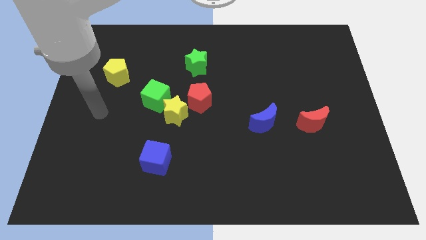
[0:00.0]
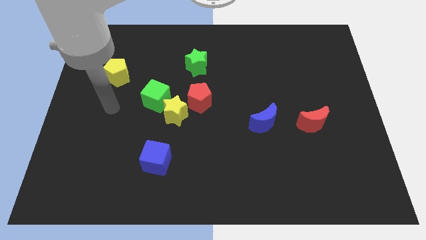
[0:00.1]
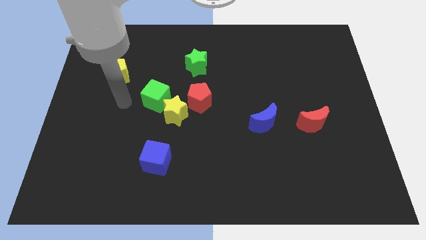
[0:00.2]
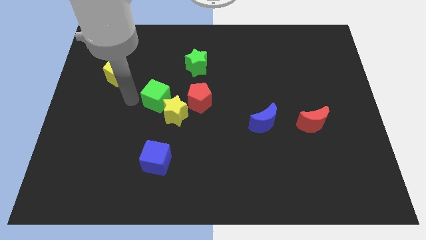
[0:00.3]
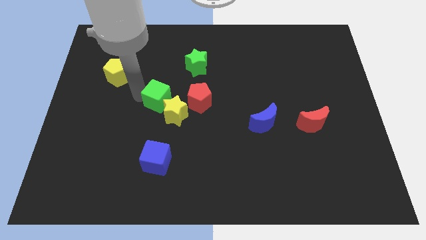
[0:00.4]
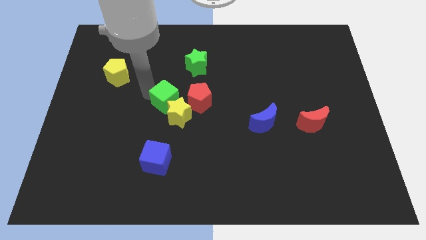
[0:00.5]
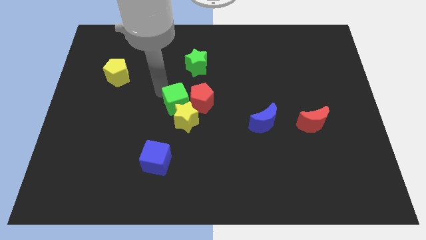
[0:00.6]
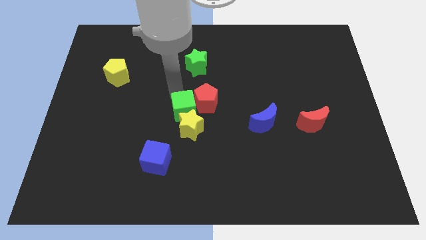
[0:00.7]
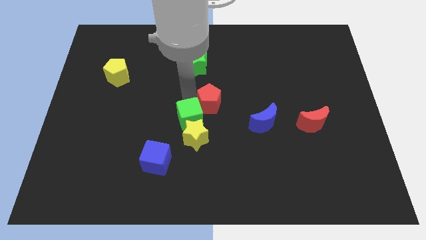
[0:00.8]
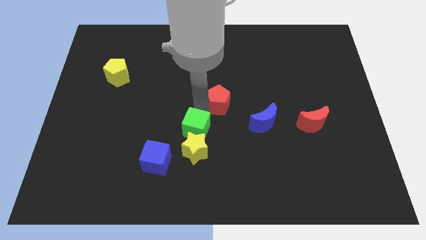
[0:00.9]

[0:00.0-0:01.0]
move the yellow star away from the green cube and red pentagon

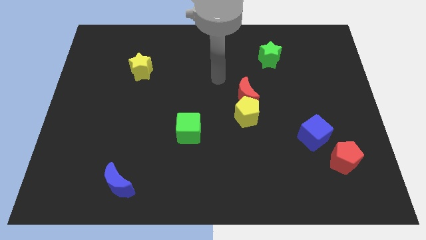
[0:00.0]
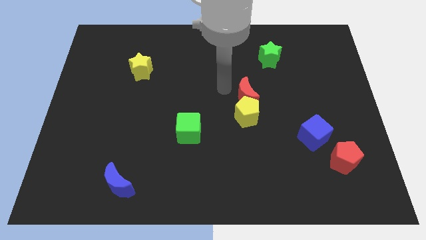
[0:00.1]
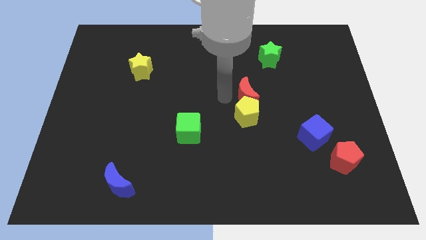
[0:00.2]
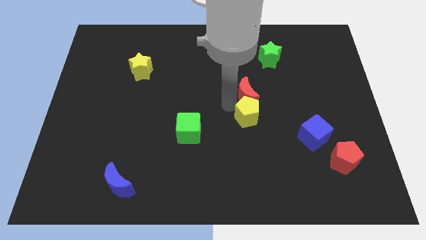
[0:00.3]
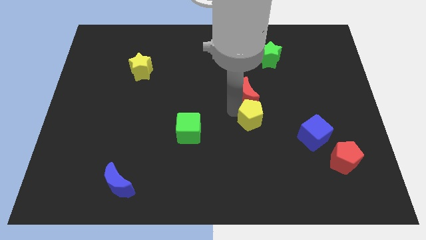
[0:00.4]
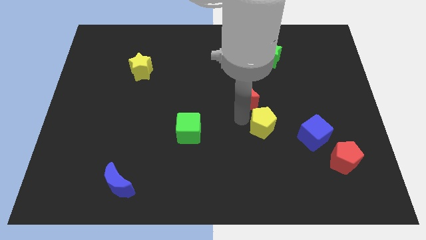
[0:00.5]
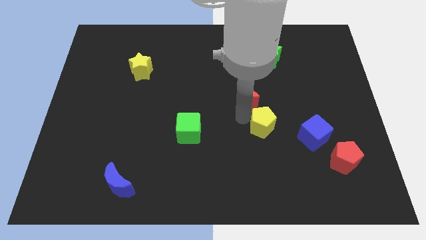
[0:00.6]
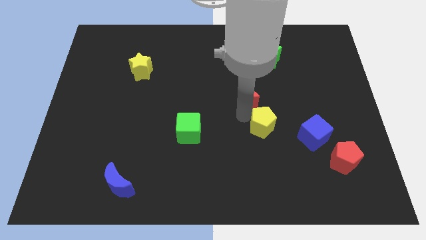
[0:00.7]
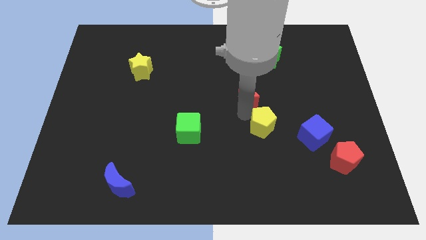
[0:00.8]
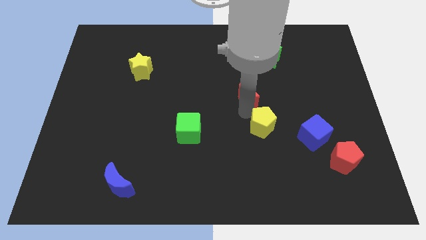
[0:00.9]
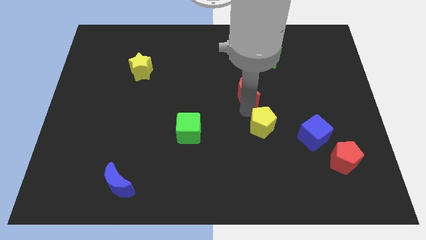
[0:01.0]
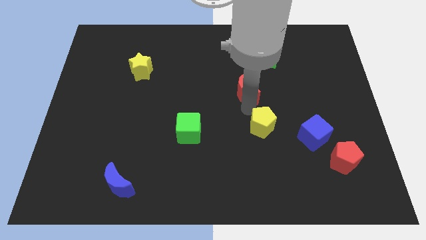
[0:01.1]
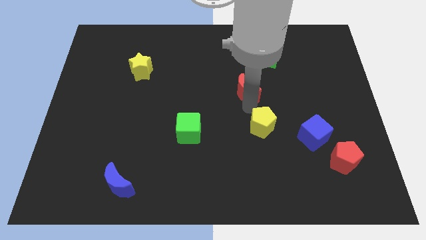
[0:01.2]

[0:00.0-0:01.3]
pull the red moon apart from the yellow pentagon

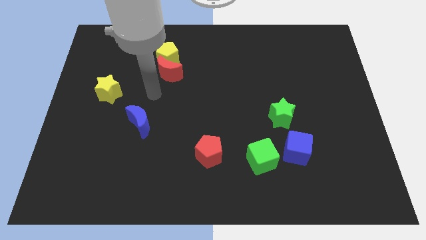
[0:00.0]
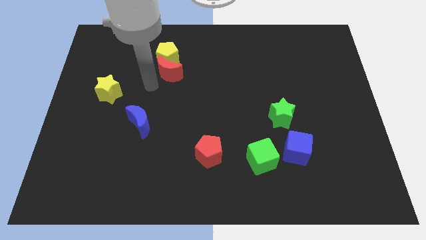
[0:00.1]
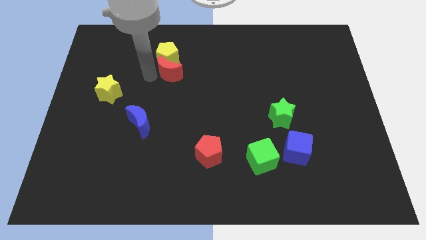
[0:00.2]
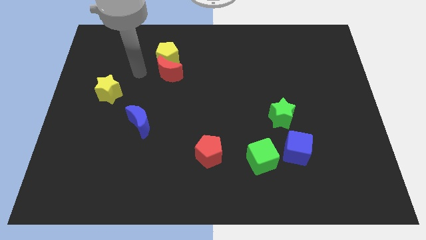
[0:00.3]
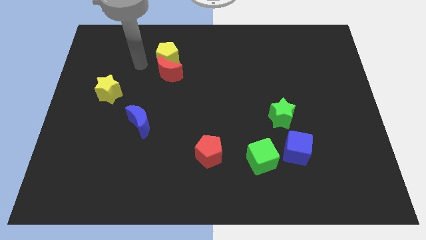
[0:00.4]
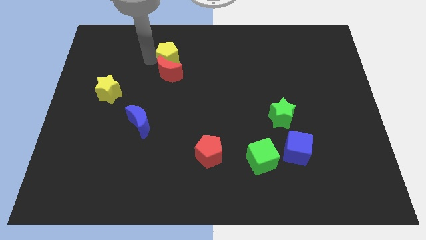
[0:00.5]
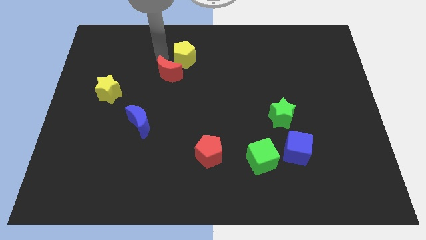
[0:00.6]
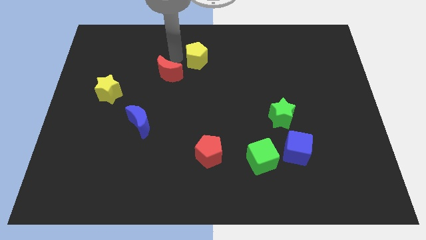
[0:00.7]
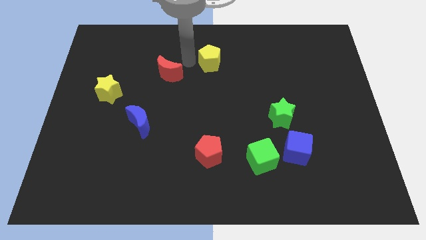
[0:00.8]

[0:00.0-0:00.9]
separate the red moon from the yellow pentagon

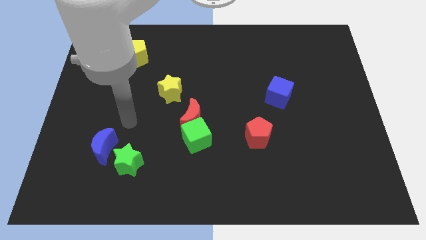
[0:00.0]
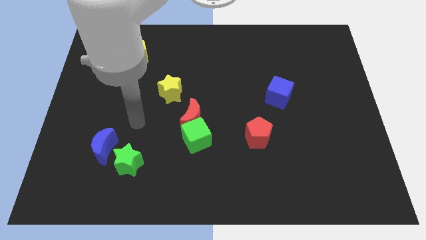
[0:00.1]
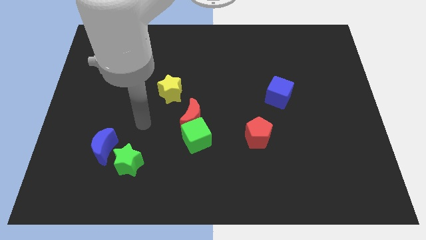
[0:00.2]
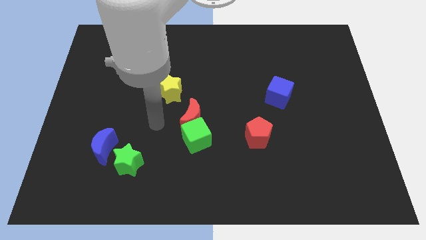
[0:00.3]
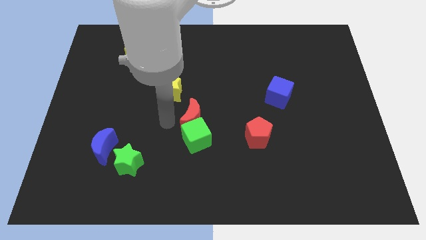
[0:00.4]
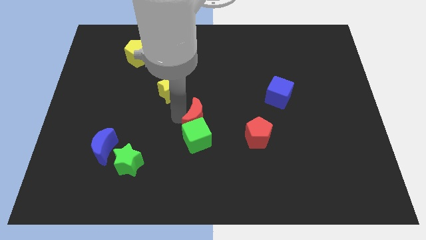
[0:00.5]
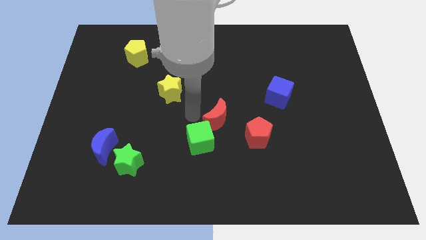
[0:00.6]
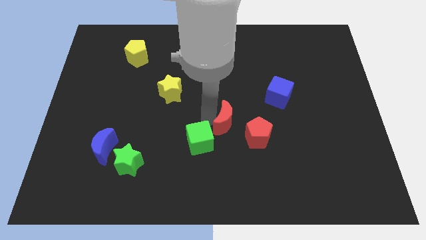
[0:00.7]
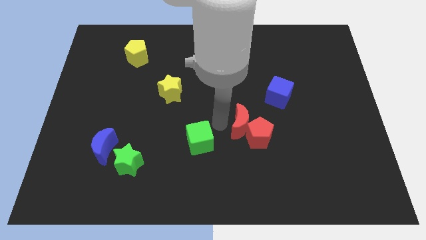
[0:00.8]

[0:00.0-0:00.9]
separate the green cube from the red moon

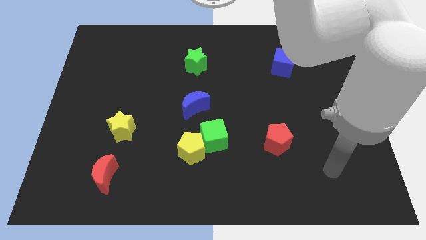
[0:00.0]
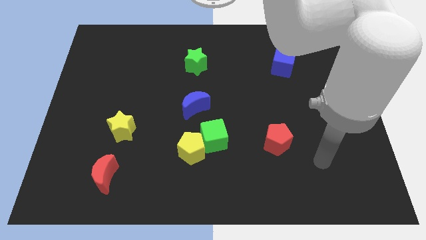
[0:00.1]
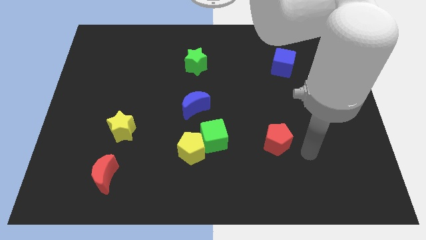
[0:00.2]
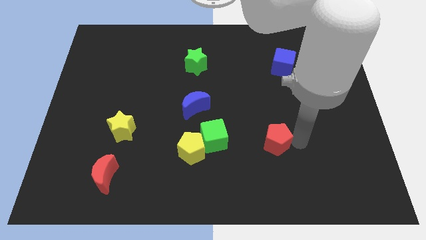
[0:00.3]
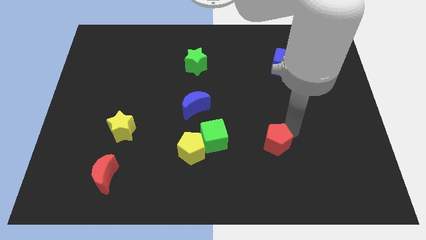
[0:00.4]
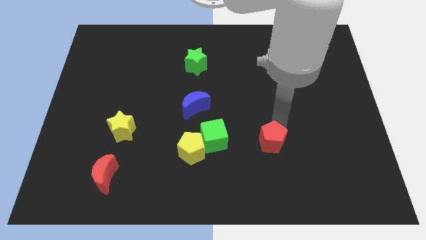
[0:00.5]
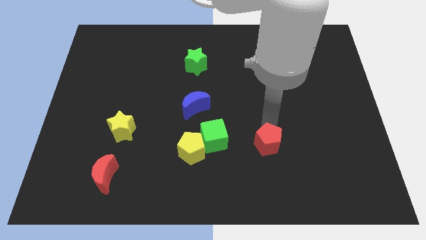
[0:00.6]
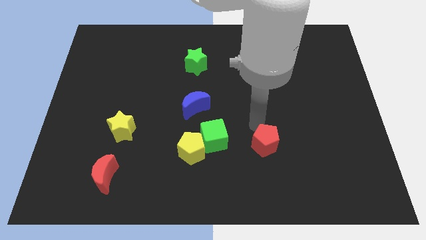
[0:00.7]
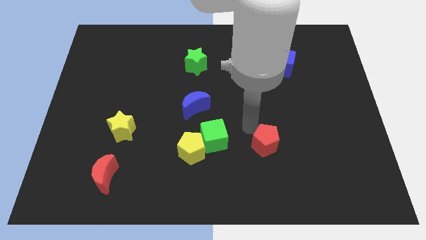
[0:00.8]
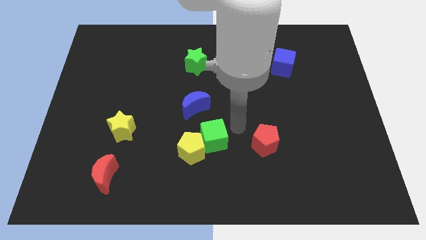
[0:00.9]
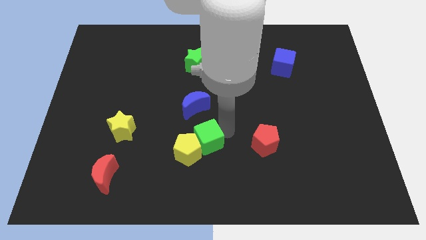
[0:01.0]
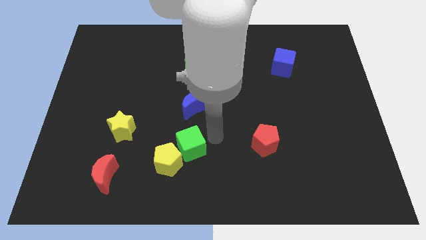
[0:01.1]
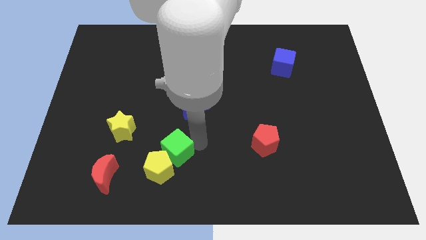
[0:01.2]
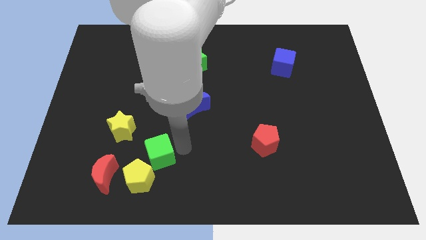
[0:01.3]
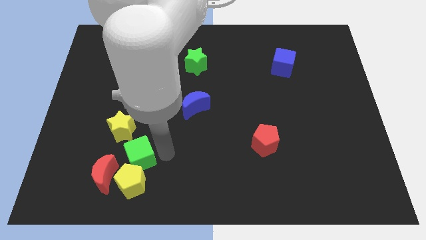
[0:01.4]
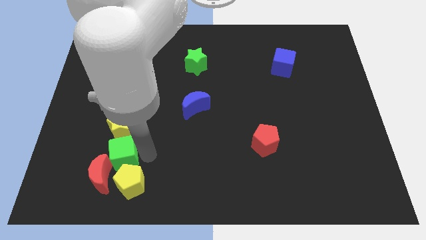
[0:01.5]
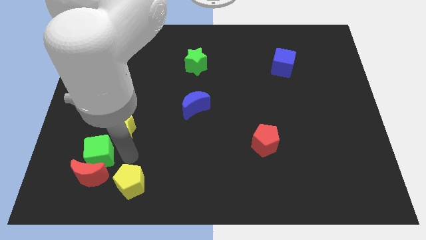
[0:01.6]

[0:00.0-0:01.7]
pull the yellow pentagon apart from the green cube

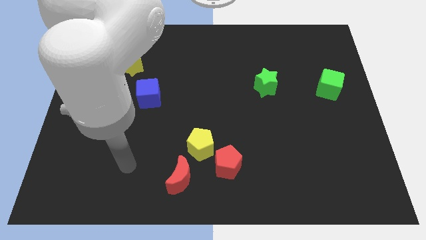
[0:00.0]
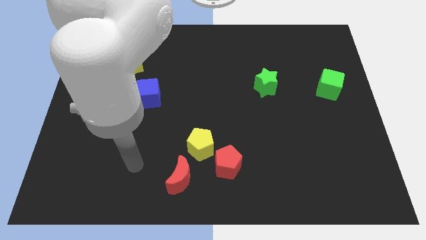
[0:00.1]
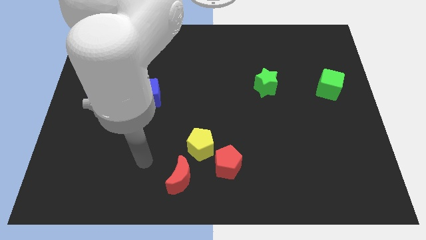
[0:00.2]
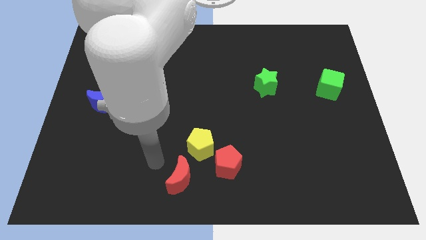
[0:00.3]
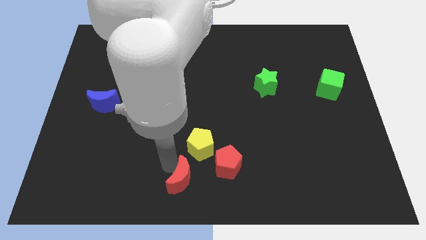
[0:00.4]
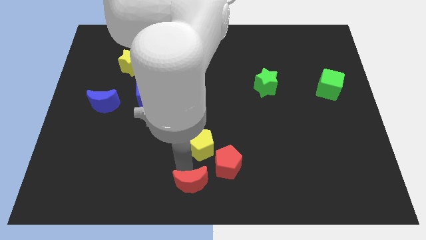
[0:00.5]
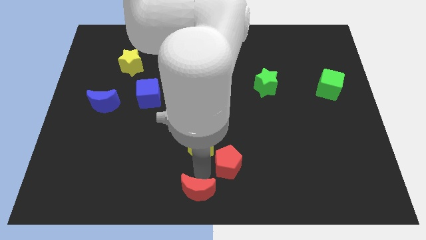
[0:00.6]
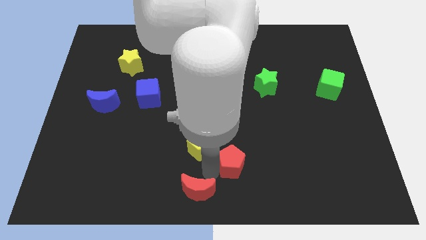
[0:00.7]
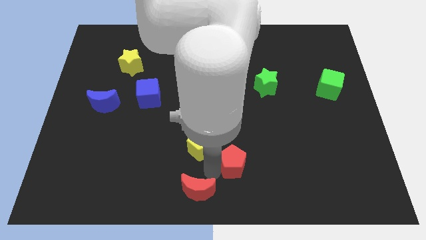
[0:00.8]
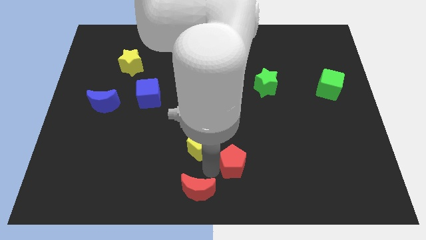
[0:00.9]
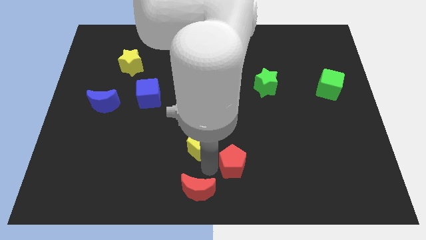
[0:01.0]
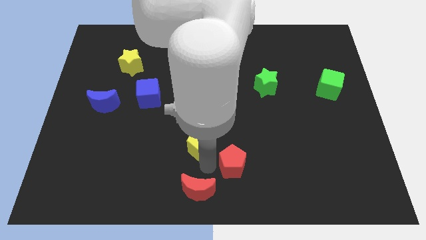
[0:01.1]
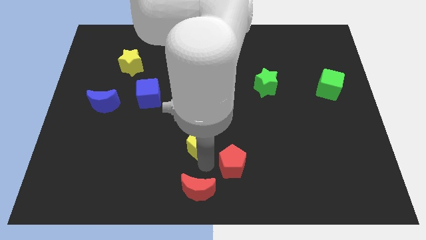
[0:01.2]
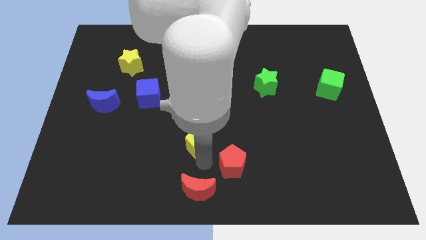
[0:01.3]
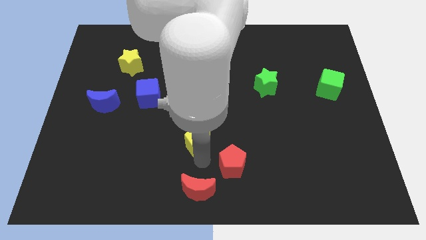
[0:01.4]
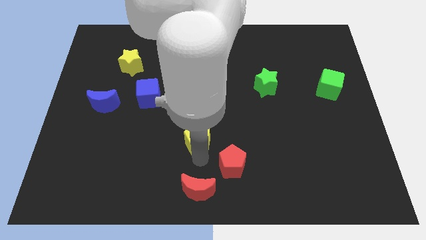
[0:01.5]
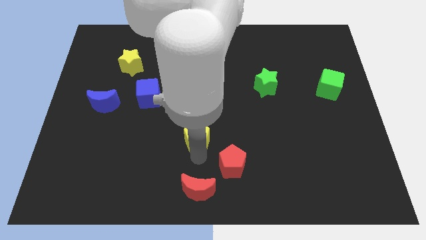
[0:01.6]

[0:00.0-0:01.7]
pull the yellow pentagon apart from the red pentagon and red moon

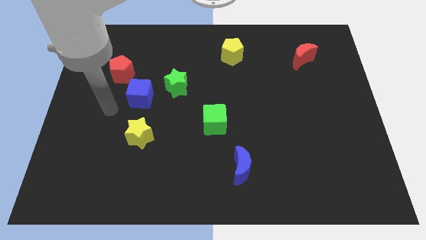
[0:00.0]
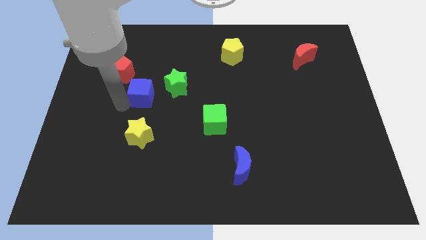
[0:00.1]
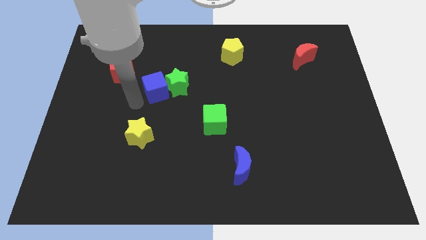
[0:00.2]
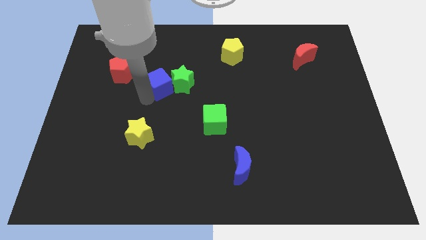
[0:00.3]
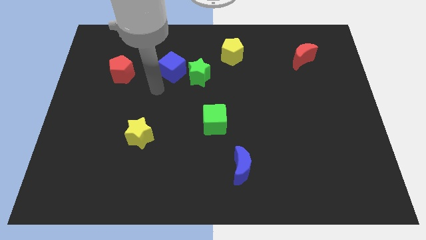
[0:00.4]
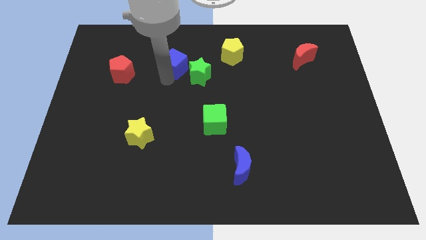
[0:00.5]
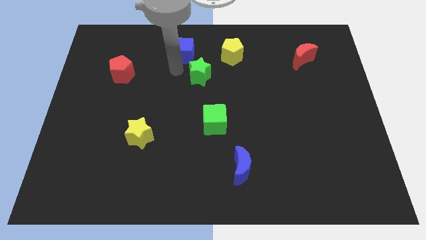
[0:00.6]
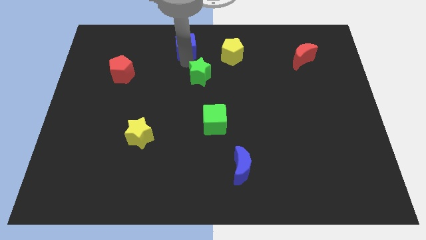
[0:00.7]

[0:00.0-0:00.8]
separate the green star from the blue cube

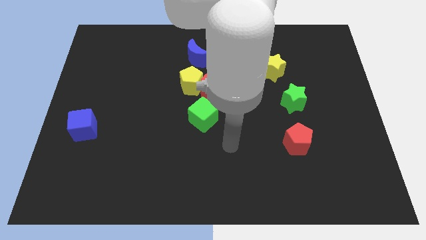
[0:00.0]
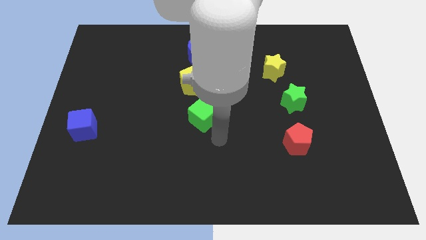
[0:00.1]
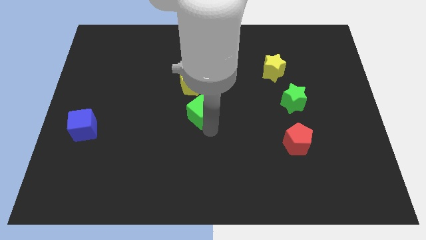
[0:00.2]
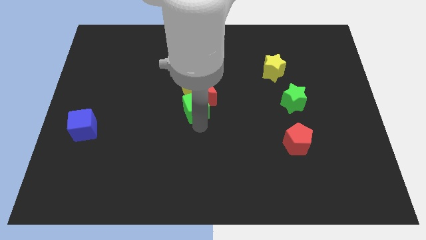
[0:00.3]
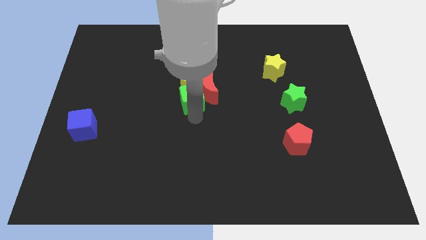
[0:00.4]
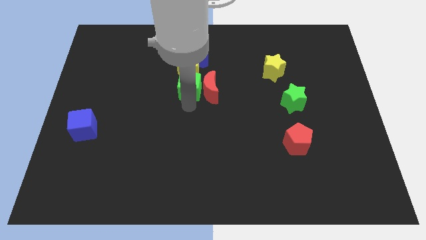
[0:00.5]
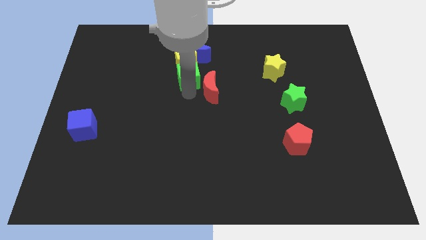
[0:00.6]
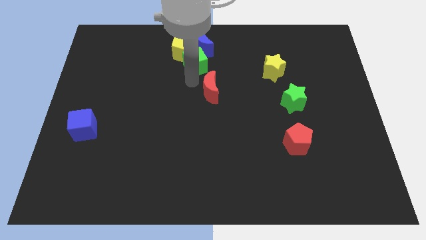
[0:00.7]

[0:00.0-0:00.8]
move the red moon away from the yellow pentagon and green cube
